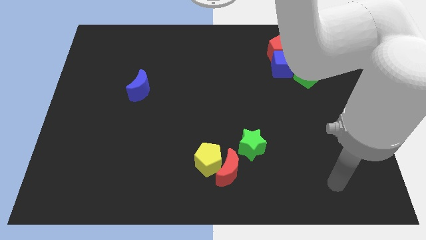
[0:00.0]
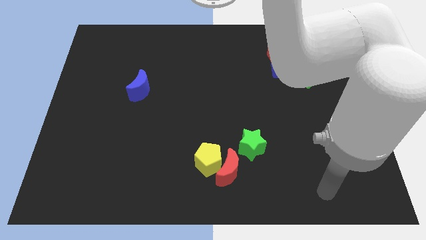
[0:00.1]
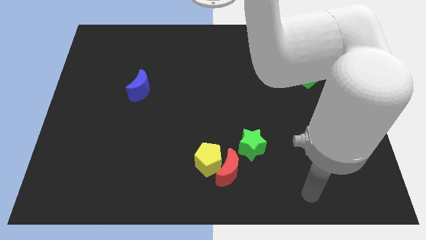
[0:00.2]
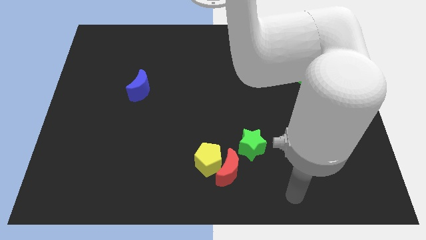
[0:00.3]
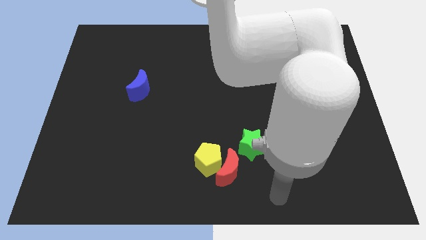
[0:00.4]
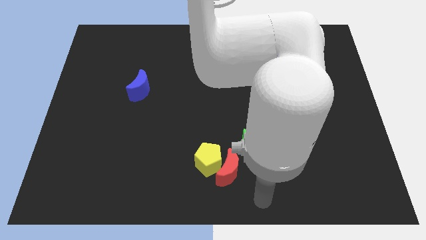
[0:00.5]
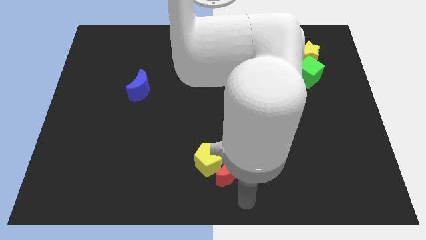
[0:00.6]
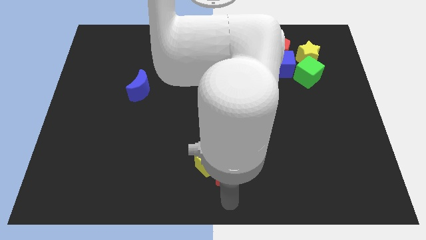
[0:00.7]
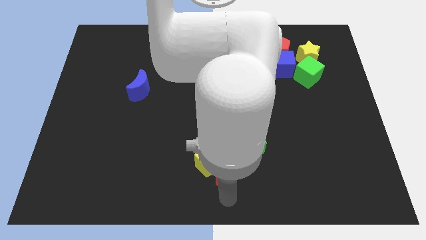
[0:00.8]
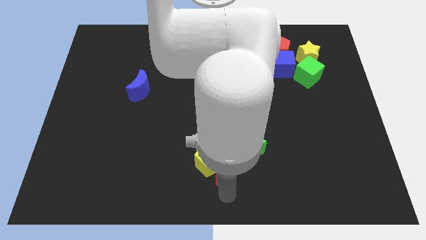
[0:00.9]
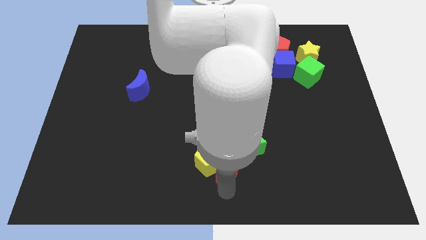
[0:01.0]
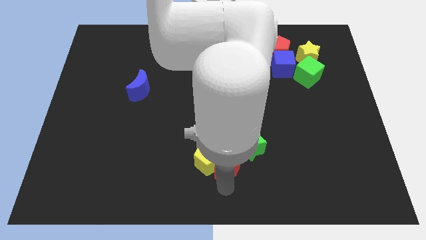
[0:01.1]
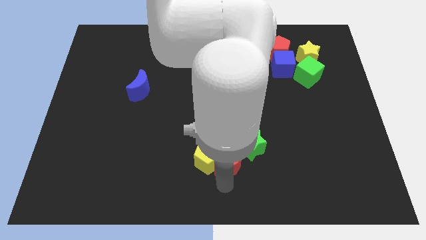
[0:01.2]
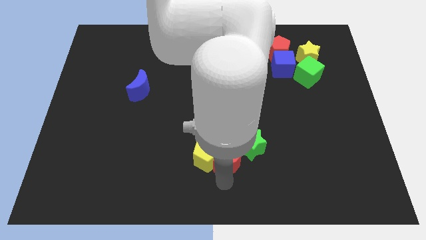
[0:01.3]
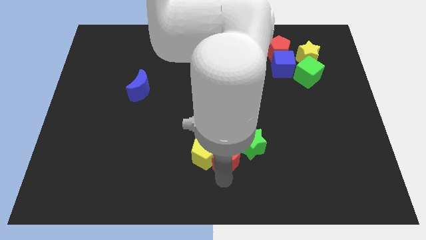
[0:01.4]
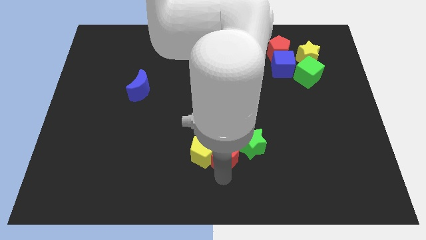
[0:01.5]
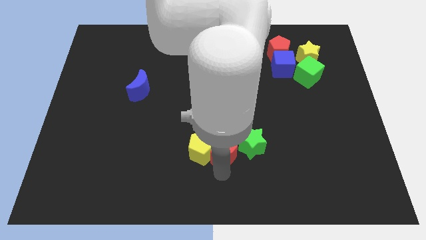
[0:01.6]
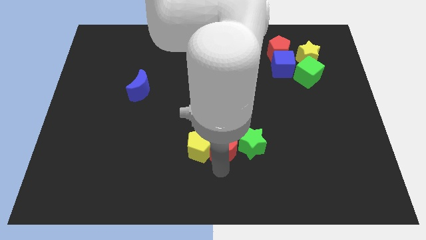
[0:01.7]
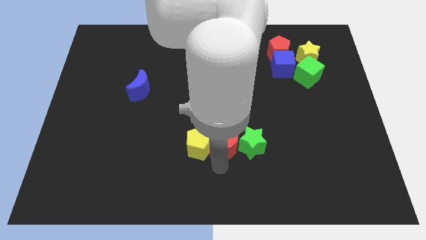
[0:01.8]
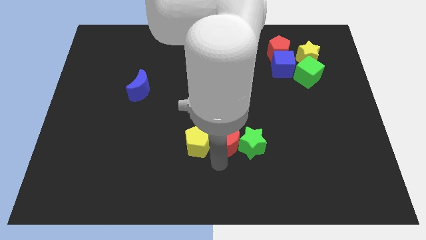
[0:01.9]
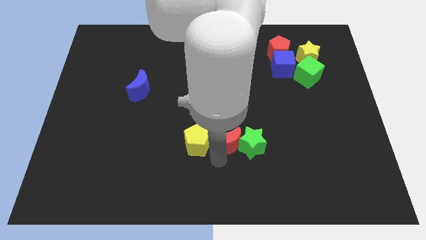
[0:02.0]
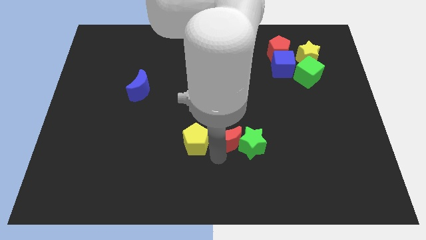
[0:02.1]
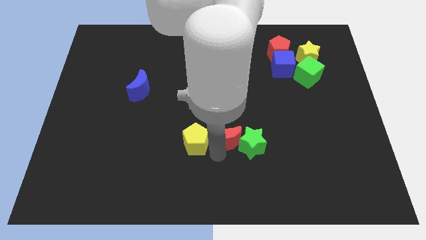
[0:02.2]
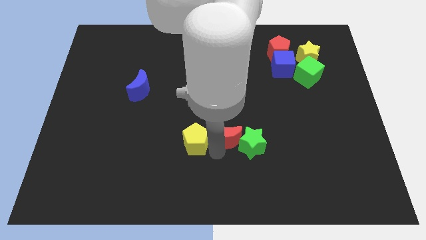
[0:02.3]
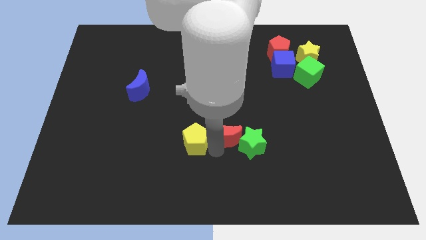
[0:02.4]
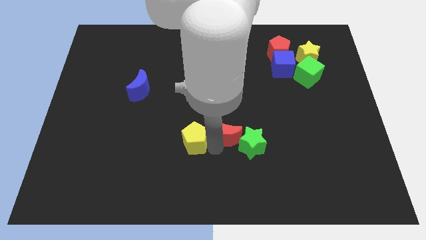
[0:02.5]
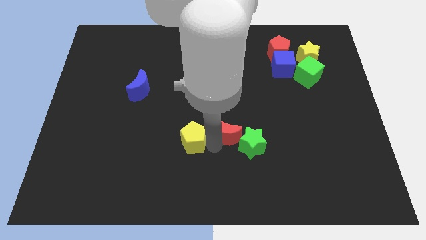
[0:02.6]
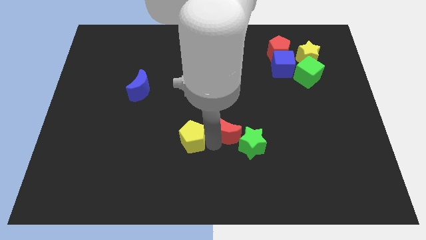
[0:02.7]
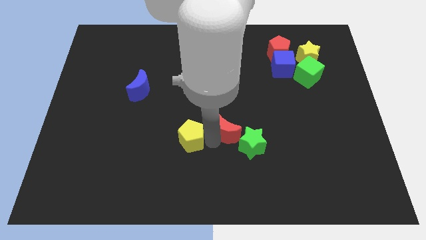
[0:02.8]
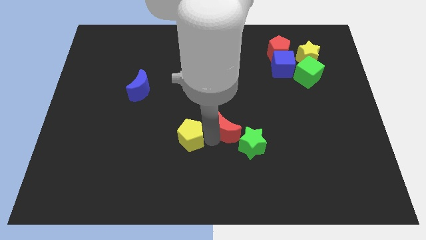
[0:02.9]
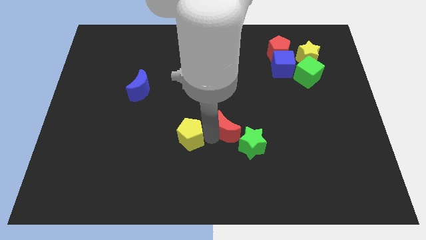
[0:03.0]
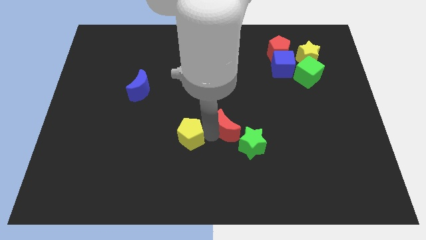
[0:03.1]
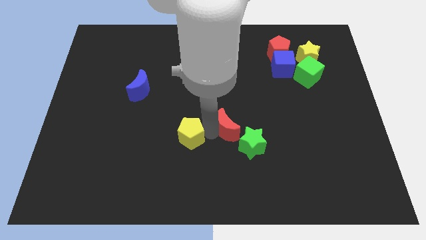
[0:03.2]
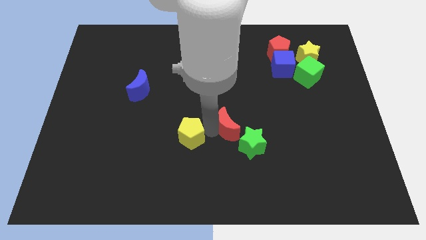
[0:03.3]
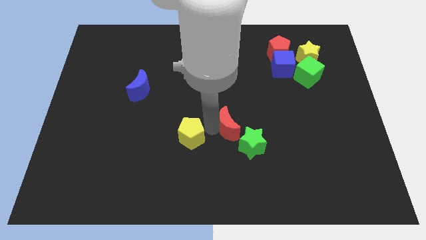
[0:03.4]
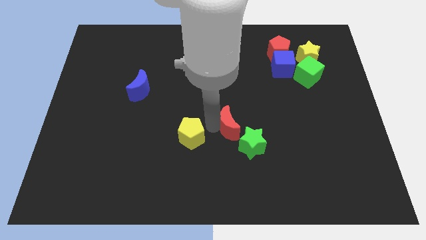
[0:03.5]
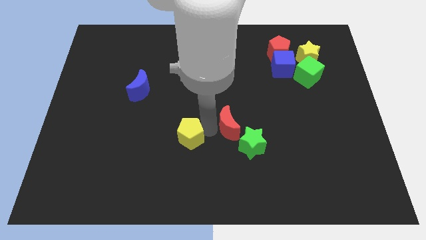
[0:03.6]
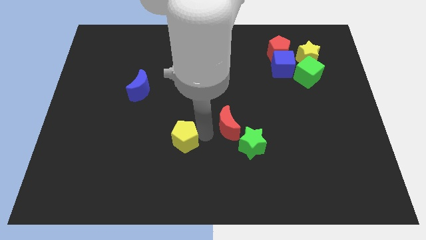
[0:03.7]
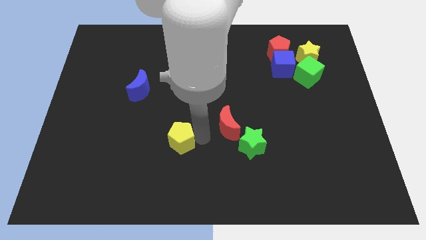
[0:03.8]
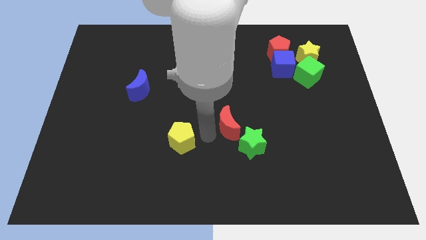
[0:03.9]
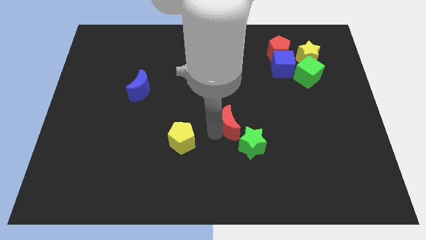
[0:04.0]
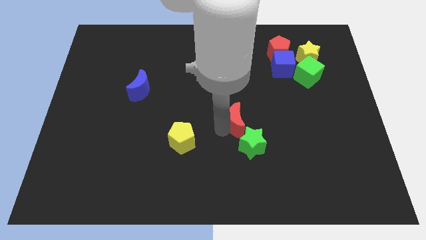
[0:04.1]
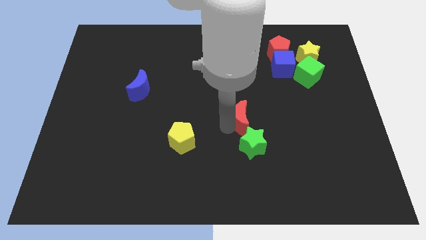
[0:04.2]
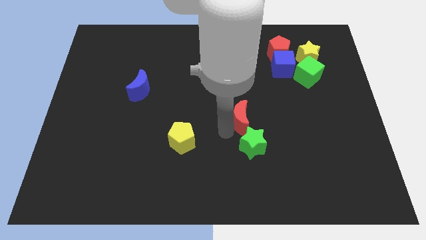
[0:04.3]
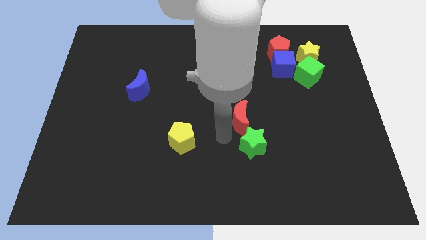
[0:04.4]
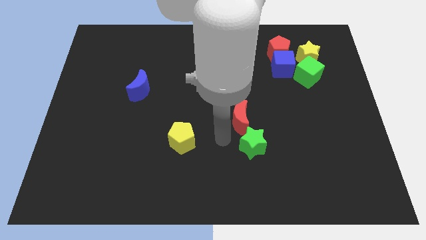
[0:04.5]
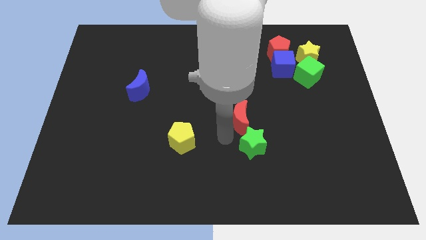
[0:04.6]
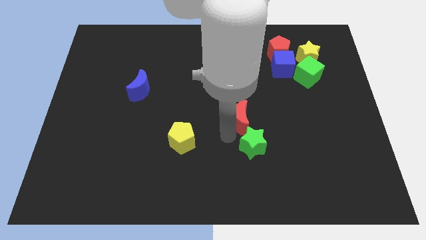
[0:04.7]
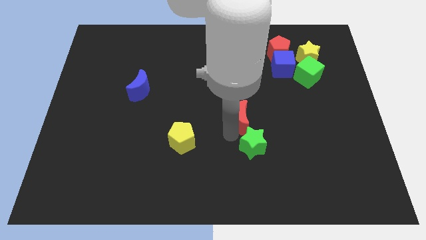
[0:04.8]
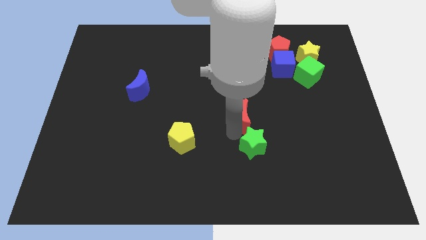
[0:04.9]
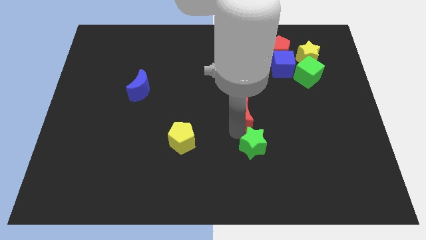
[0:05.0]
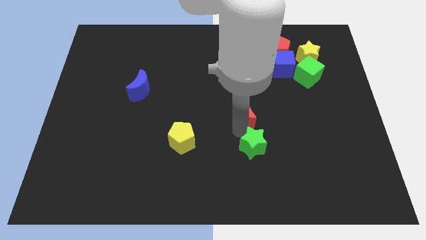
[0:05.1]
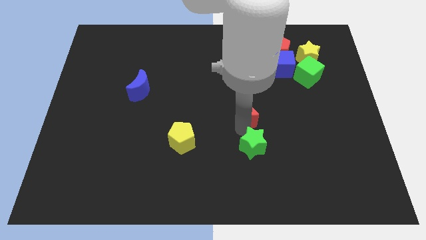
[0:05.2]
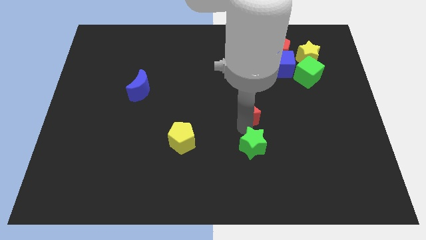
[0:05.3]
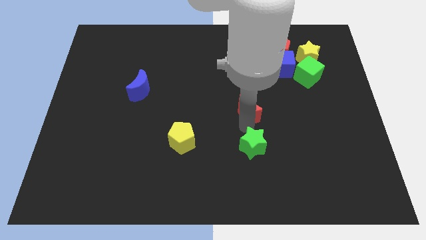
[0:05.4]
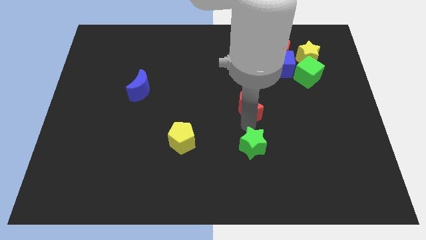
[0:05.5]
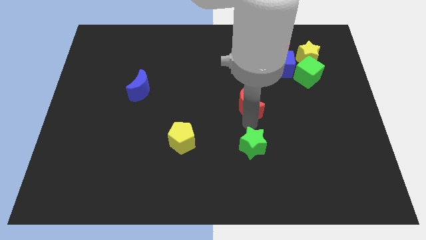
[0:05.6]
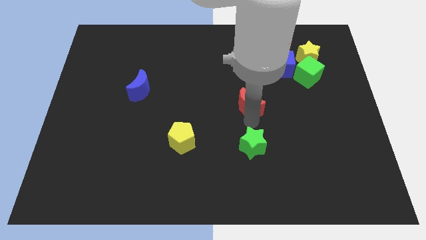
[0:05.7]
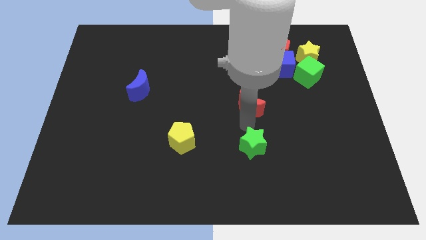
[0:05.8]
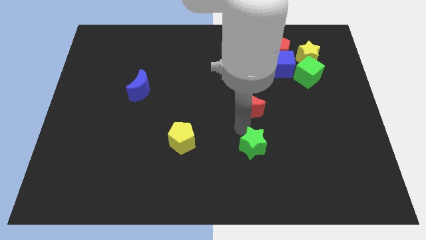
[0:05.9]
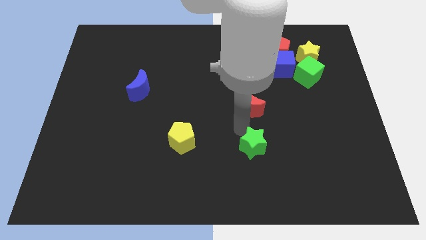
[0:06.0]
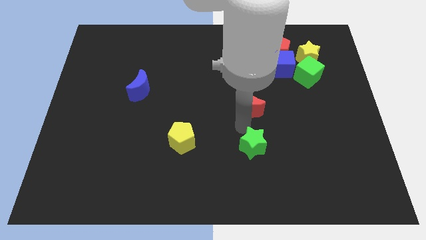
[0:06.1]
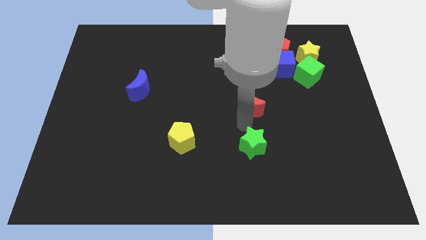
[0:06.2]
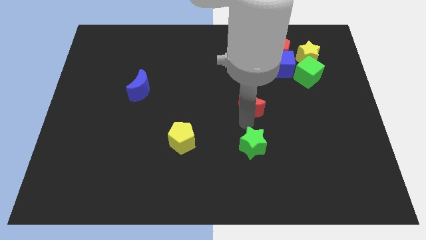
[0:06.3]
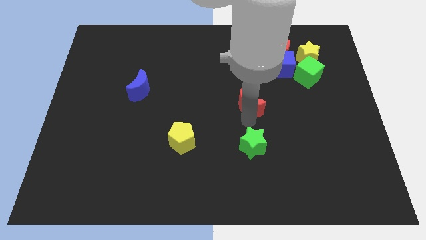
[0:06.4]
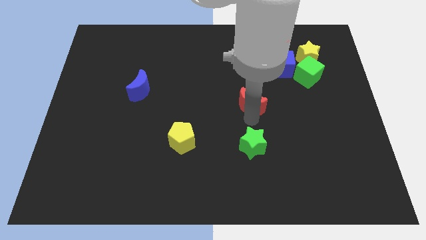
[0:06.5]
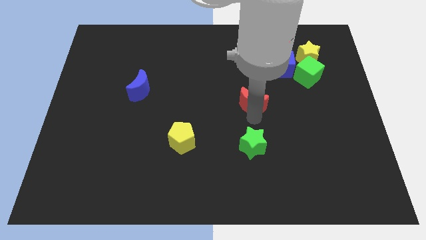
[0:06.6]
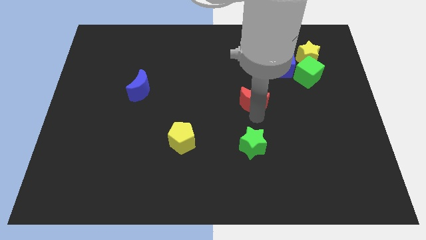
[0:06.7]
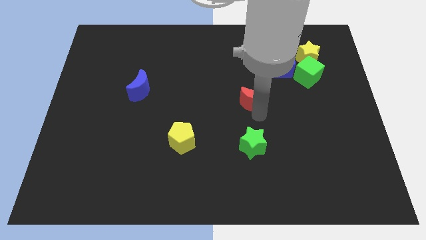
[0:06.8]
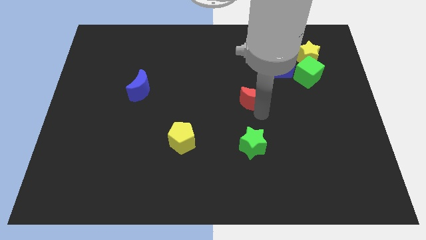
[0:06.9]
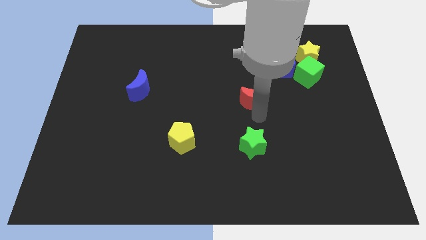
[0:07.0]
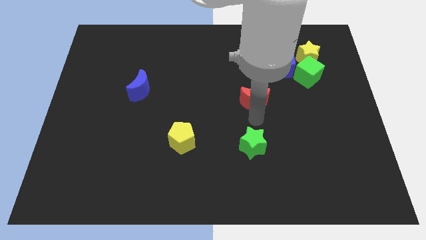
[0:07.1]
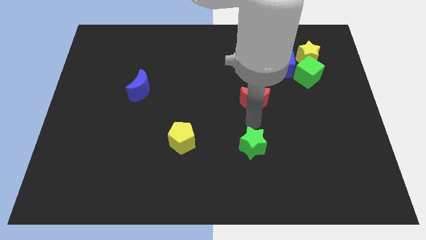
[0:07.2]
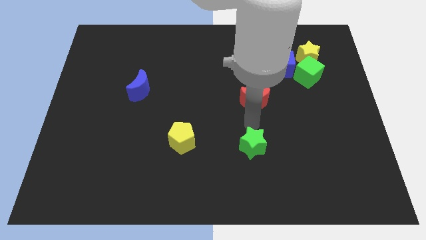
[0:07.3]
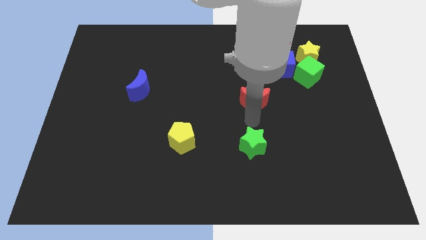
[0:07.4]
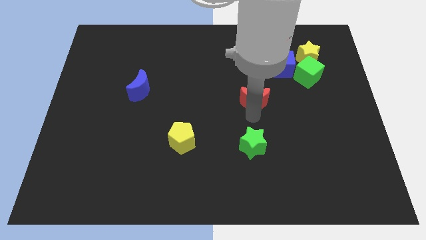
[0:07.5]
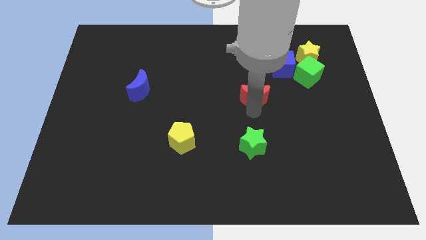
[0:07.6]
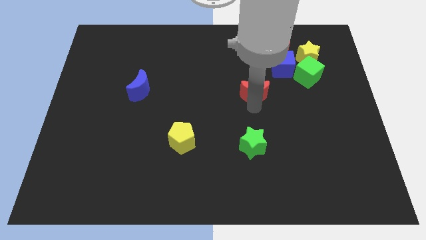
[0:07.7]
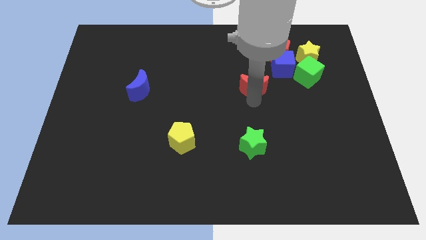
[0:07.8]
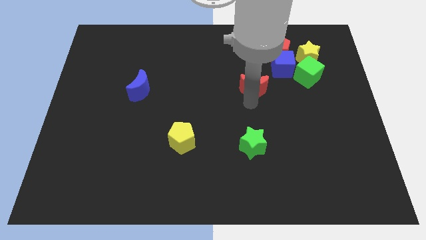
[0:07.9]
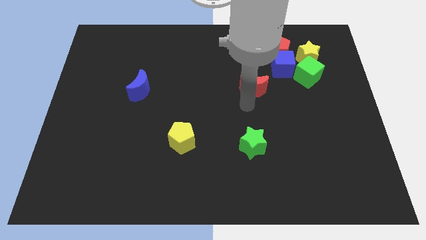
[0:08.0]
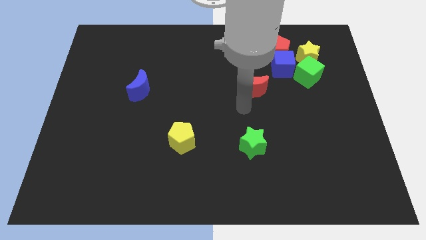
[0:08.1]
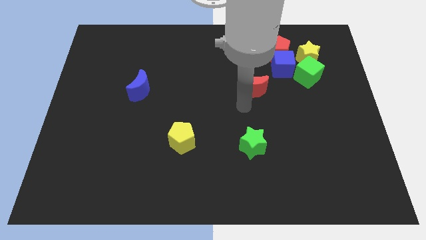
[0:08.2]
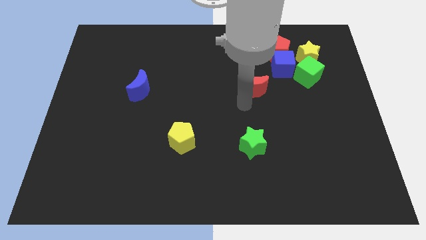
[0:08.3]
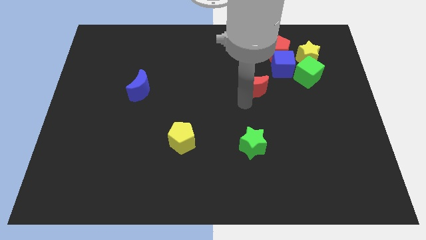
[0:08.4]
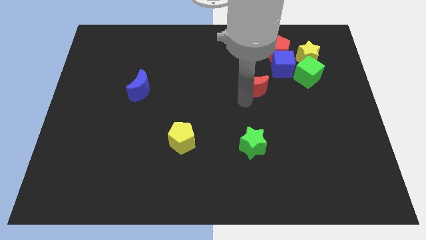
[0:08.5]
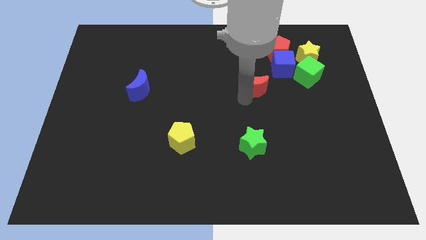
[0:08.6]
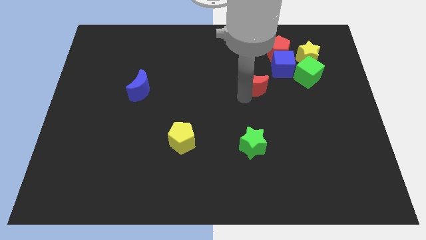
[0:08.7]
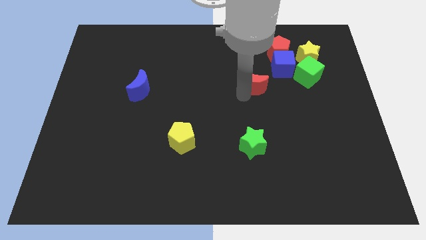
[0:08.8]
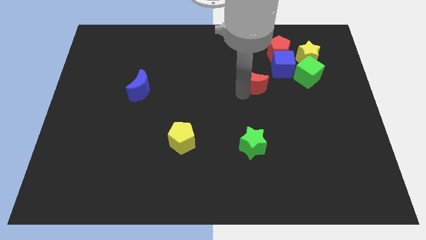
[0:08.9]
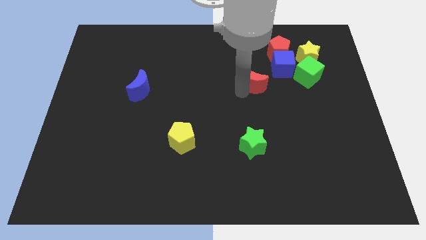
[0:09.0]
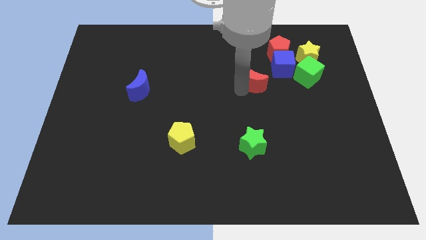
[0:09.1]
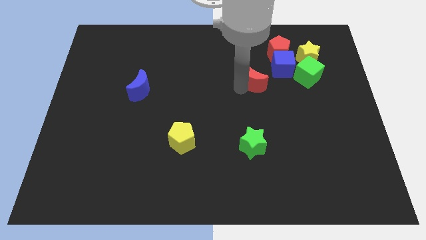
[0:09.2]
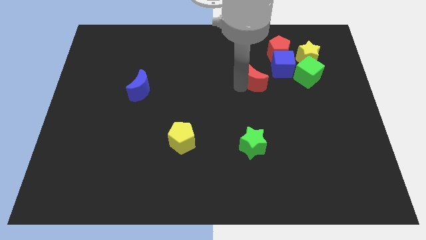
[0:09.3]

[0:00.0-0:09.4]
put the red moon to the bottom left of the red pentagon
